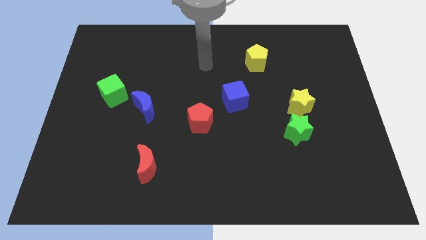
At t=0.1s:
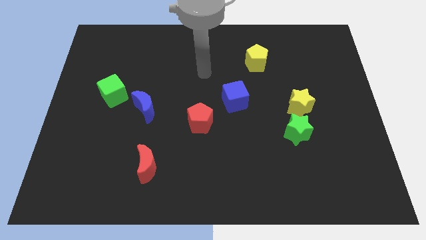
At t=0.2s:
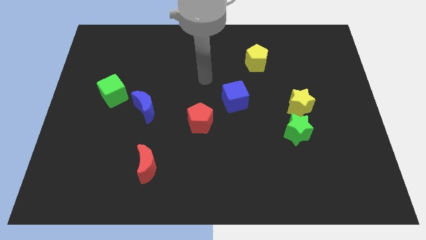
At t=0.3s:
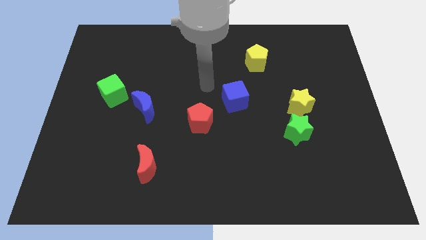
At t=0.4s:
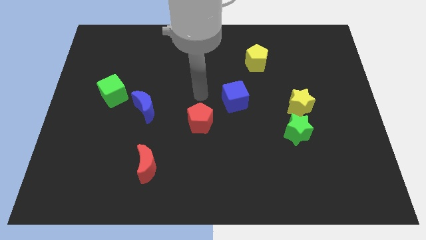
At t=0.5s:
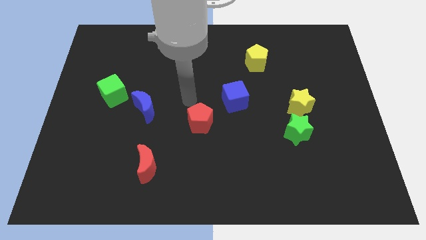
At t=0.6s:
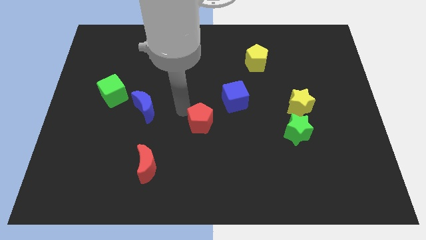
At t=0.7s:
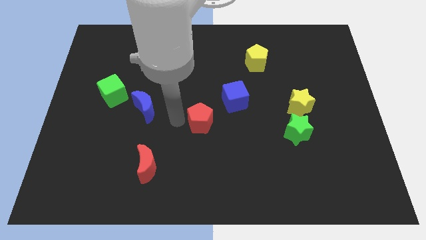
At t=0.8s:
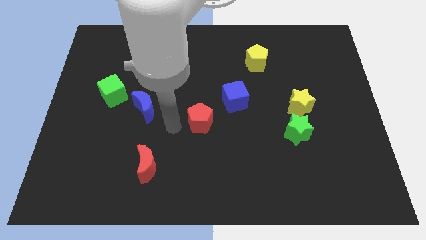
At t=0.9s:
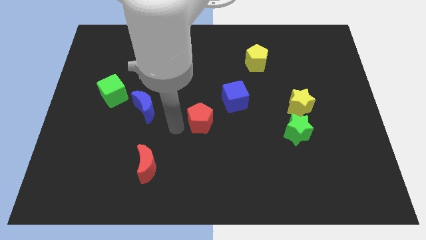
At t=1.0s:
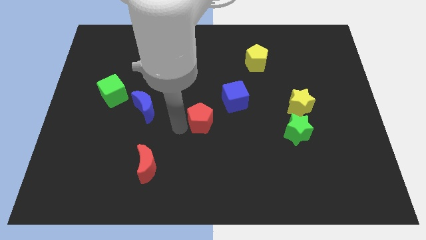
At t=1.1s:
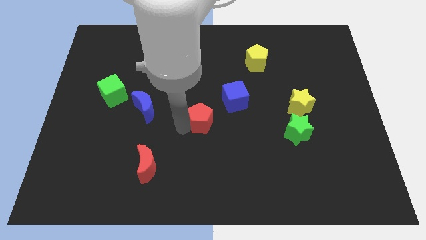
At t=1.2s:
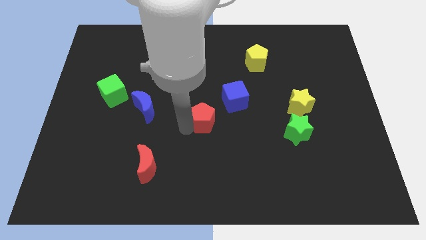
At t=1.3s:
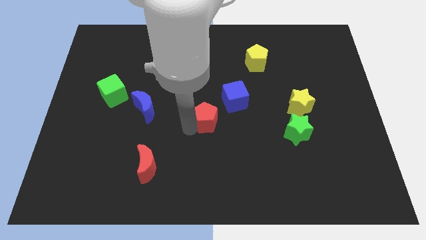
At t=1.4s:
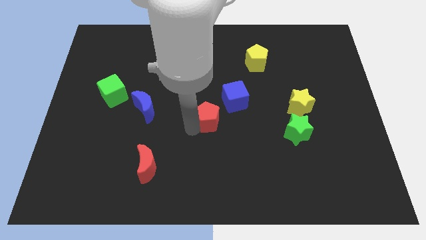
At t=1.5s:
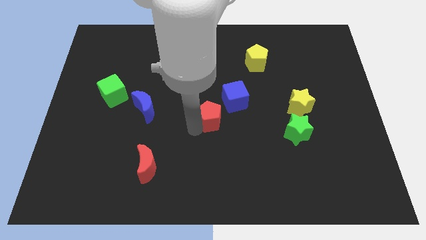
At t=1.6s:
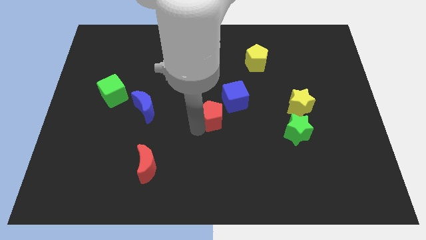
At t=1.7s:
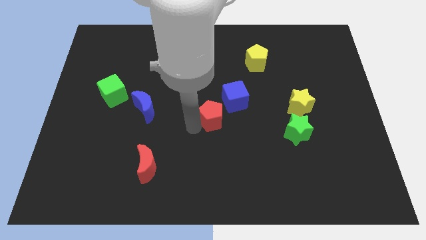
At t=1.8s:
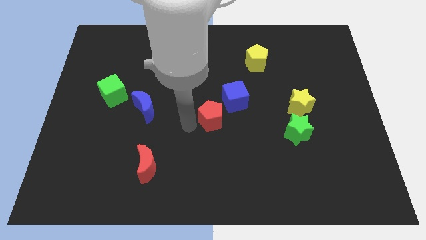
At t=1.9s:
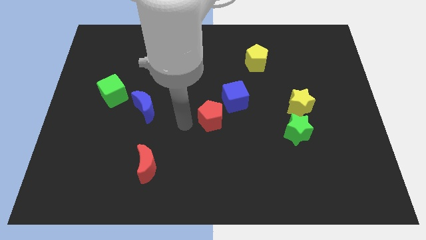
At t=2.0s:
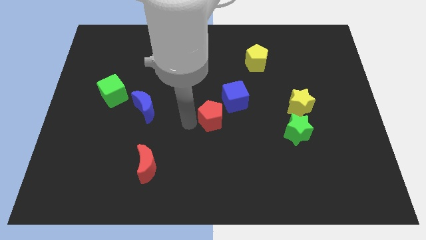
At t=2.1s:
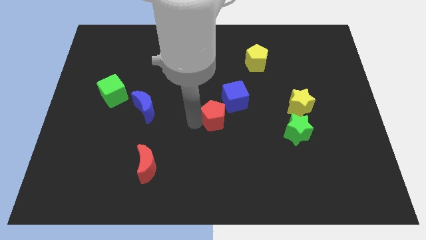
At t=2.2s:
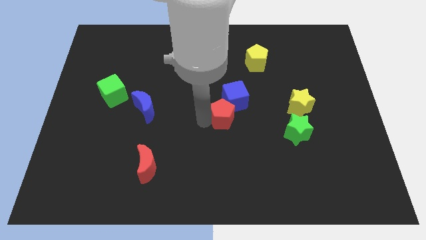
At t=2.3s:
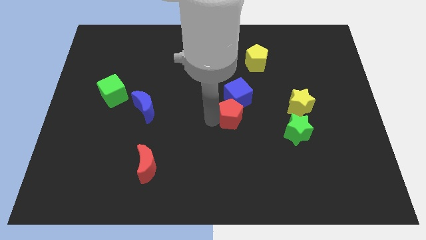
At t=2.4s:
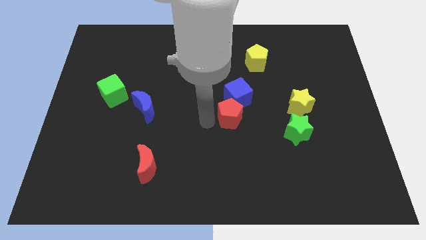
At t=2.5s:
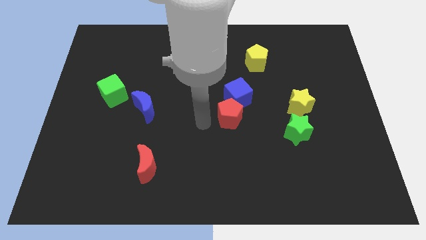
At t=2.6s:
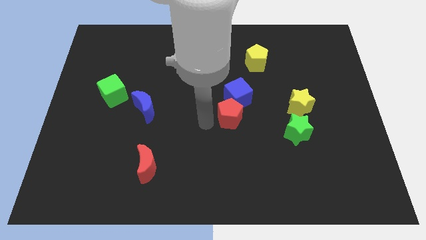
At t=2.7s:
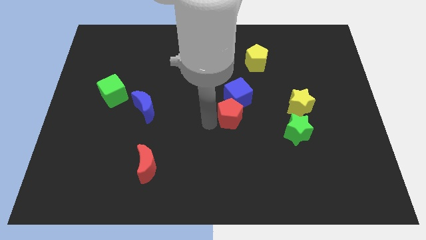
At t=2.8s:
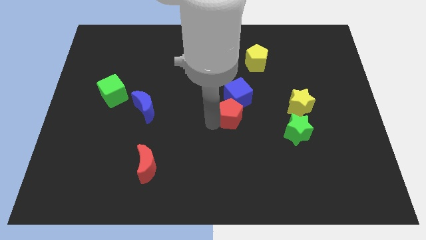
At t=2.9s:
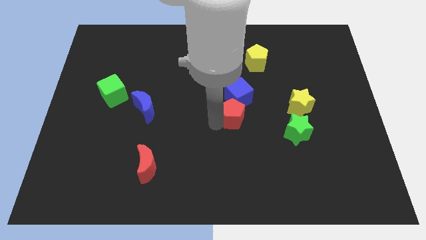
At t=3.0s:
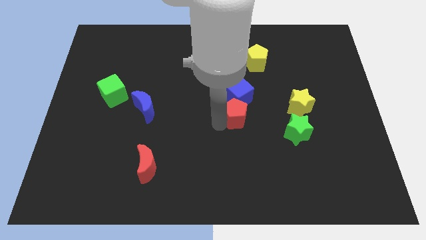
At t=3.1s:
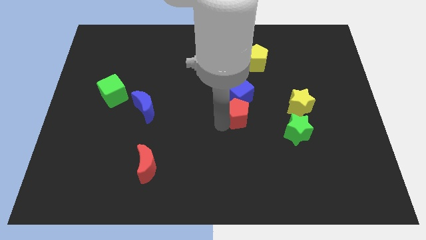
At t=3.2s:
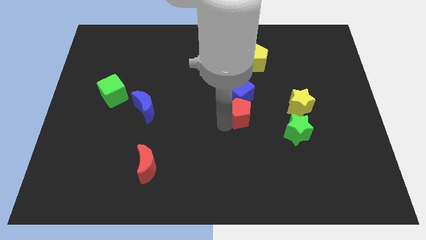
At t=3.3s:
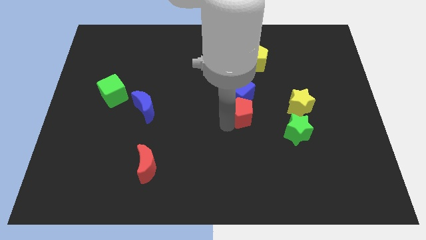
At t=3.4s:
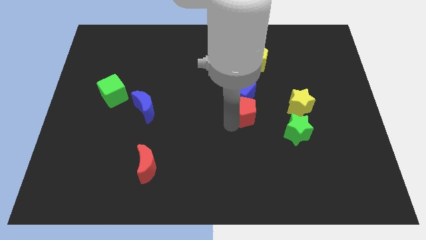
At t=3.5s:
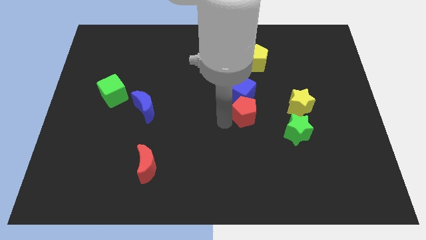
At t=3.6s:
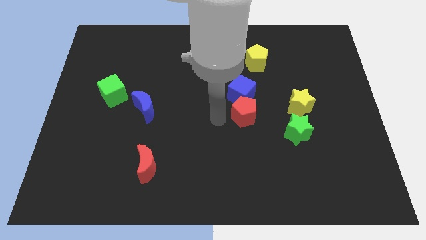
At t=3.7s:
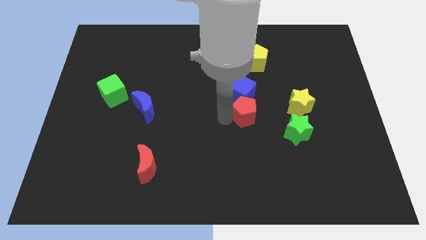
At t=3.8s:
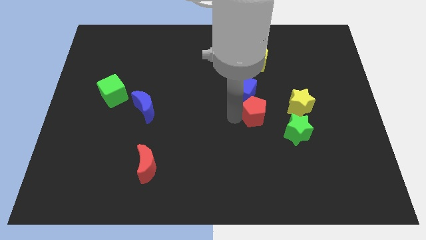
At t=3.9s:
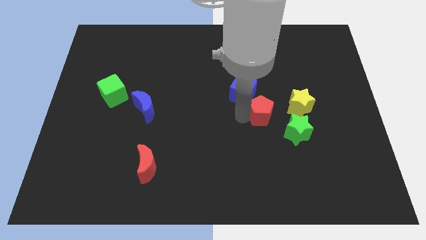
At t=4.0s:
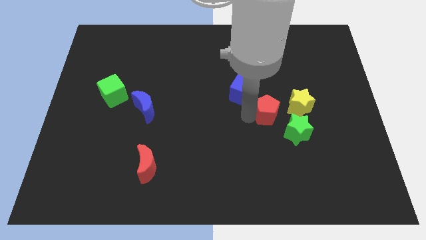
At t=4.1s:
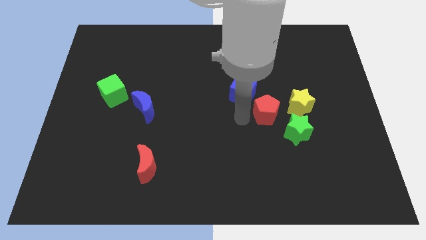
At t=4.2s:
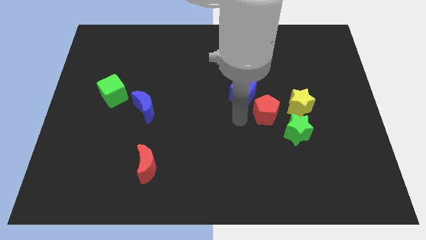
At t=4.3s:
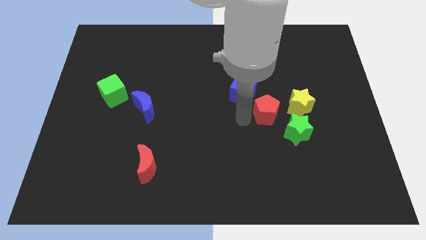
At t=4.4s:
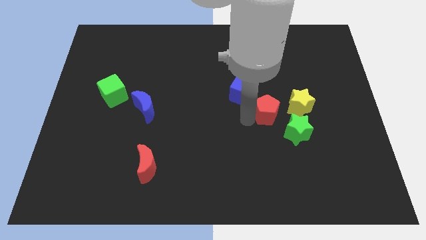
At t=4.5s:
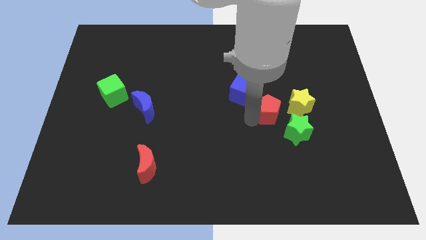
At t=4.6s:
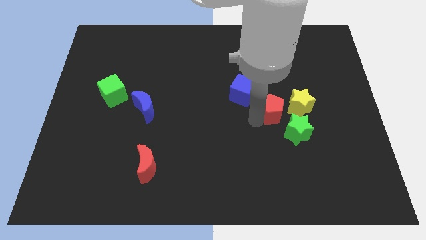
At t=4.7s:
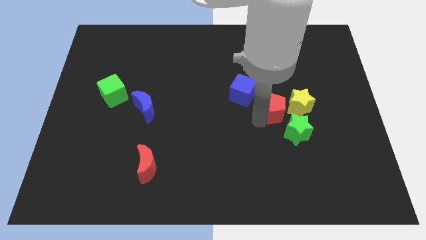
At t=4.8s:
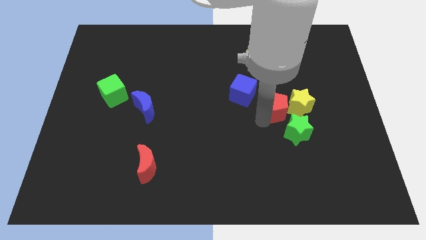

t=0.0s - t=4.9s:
move the red pentagon next to the yellow star

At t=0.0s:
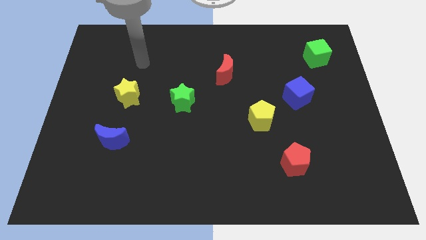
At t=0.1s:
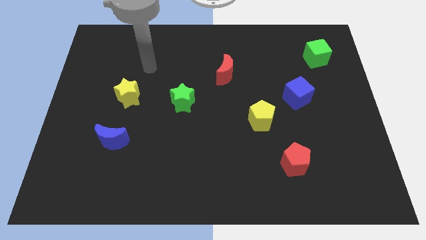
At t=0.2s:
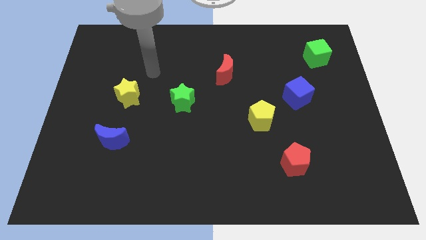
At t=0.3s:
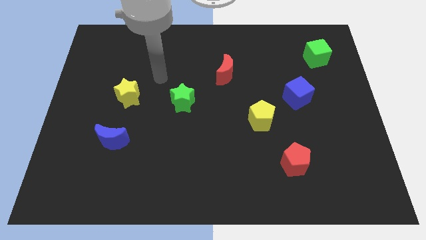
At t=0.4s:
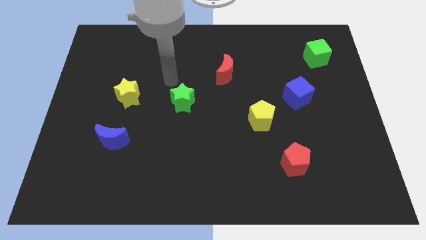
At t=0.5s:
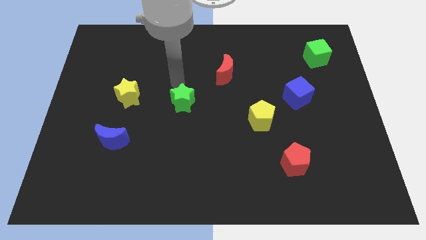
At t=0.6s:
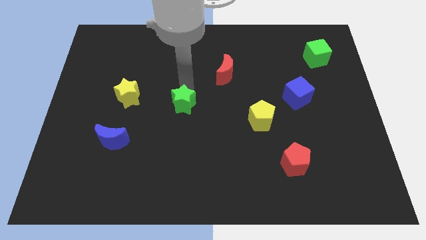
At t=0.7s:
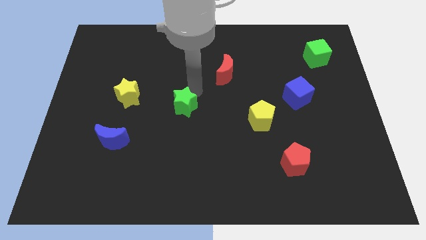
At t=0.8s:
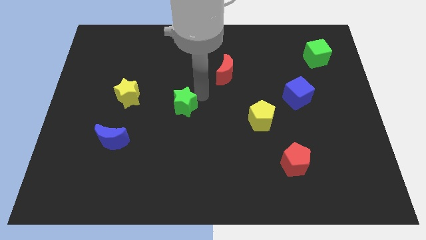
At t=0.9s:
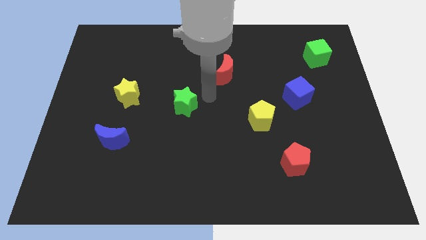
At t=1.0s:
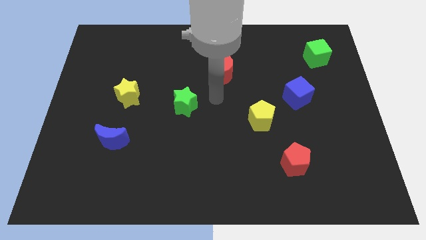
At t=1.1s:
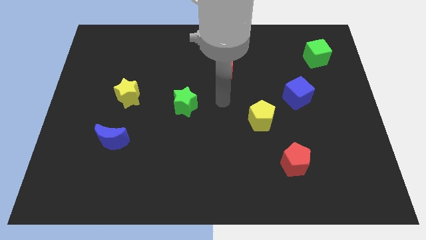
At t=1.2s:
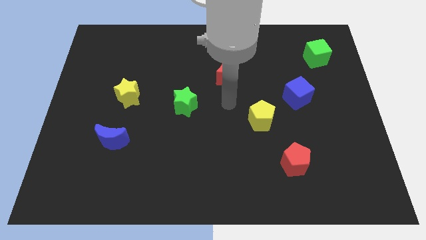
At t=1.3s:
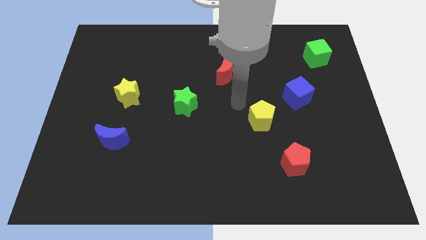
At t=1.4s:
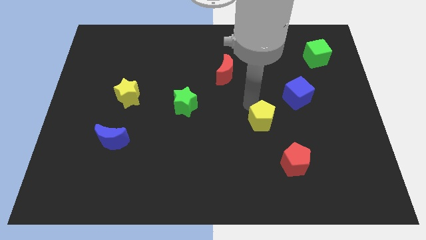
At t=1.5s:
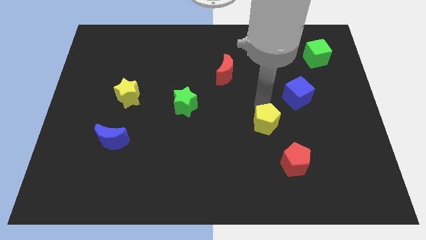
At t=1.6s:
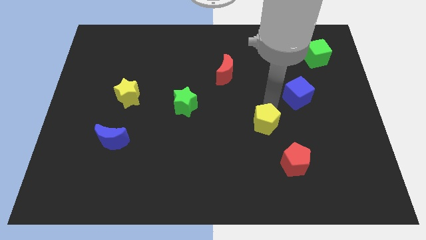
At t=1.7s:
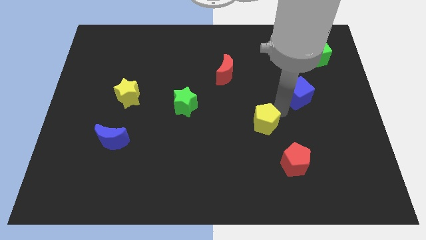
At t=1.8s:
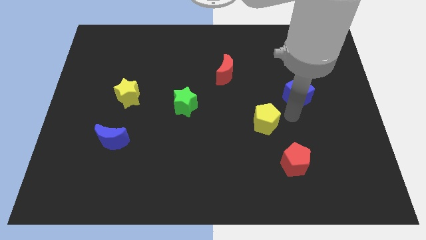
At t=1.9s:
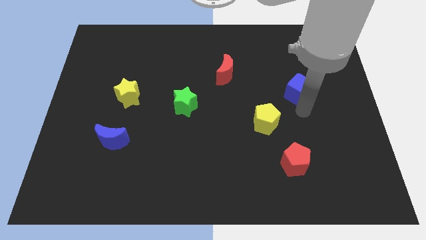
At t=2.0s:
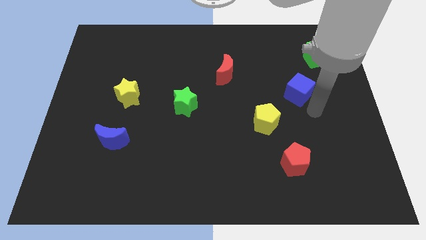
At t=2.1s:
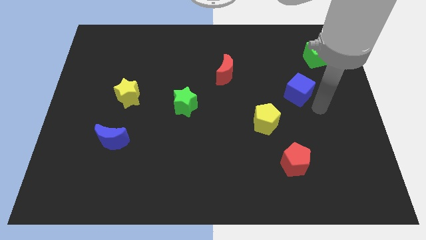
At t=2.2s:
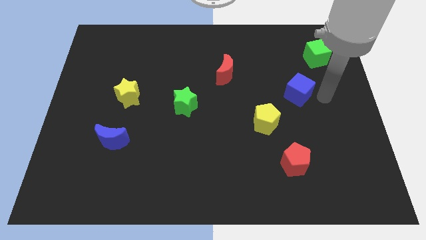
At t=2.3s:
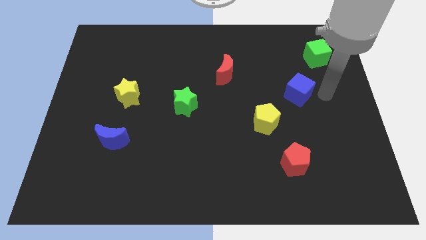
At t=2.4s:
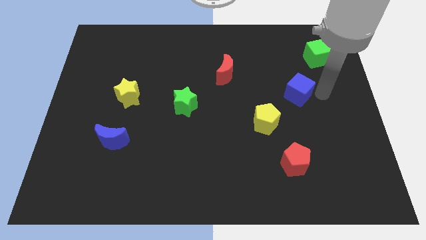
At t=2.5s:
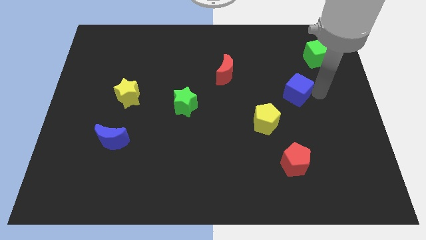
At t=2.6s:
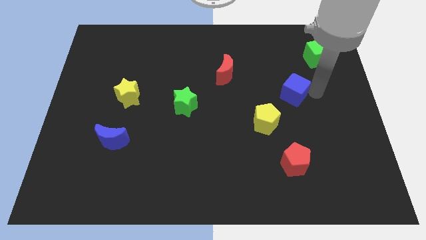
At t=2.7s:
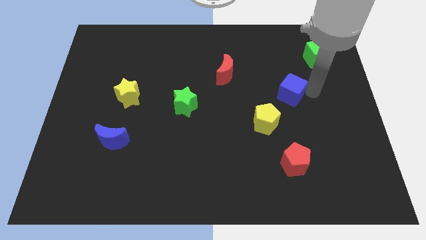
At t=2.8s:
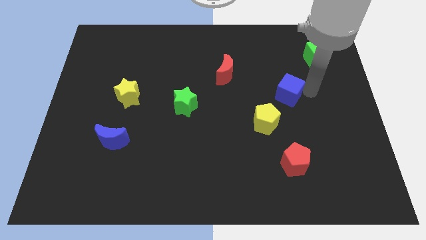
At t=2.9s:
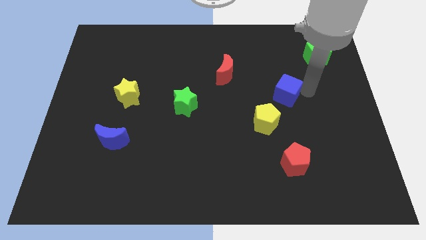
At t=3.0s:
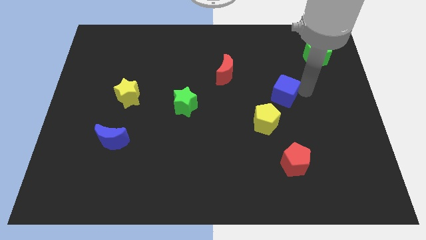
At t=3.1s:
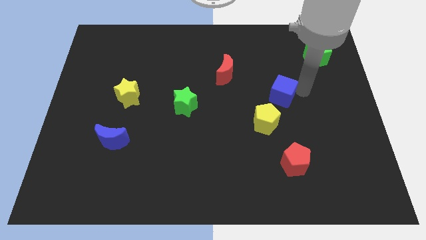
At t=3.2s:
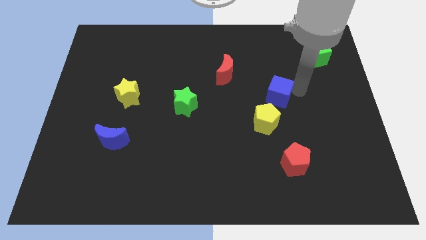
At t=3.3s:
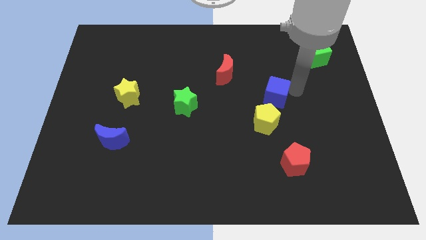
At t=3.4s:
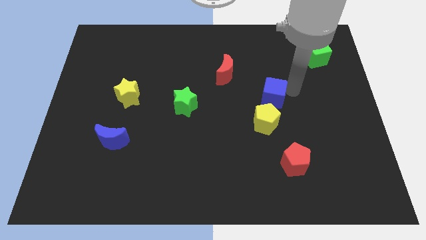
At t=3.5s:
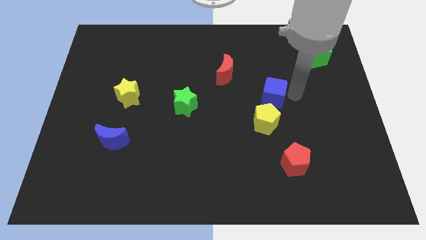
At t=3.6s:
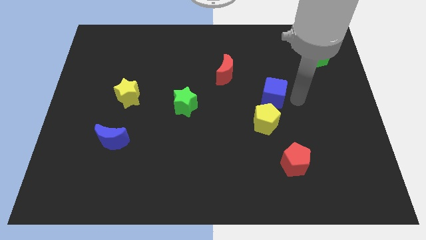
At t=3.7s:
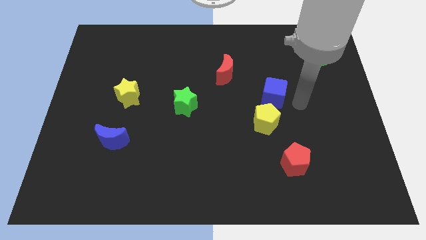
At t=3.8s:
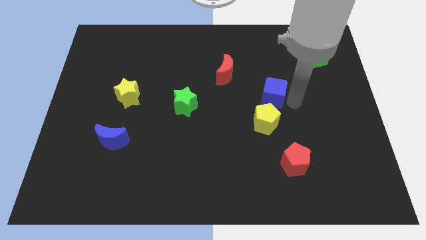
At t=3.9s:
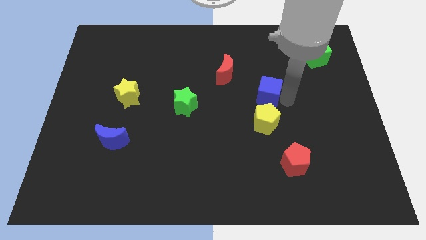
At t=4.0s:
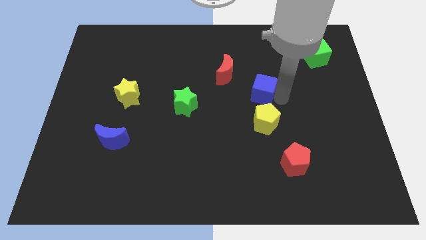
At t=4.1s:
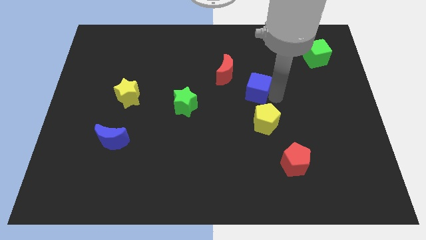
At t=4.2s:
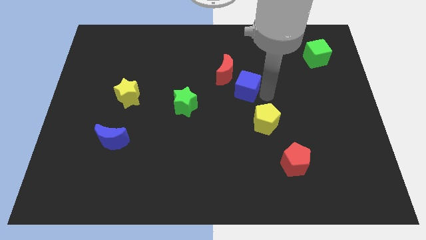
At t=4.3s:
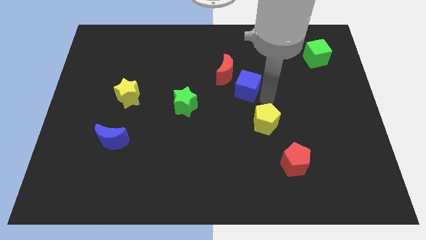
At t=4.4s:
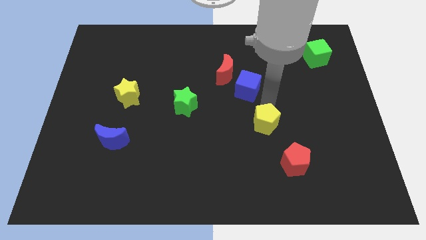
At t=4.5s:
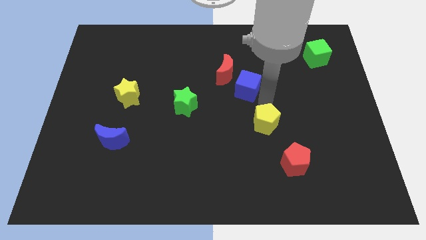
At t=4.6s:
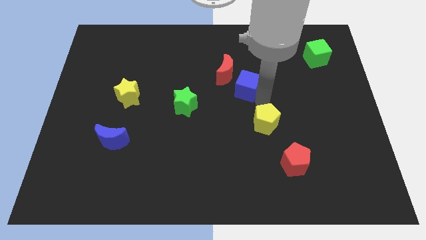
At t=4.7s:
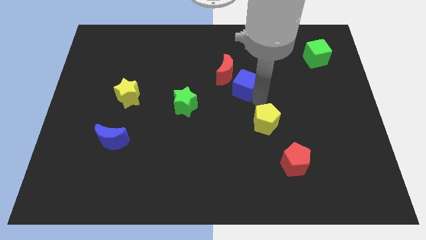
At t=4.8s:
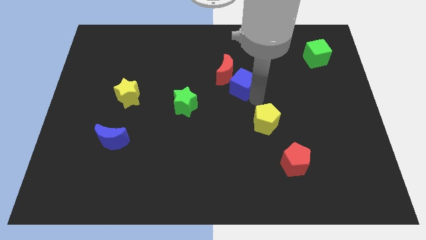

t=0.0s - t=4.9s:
push the blue cube towards the red moon
